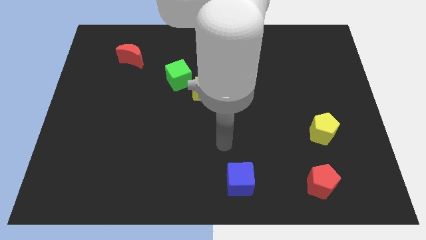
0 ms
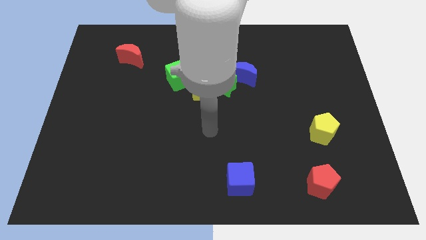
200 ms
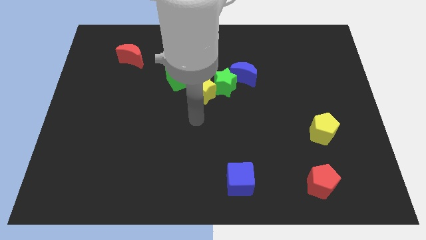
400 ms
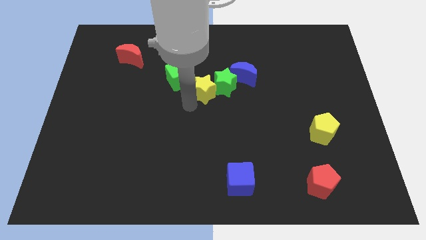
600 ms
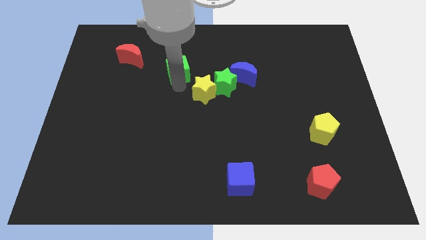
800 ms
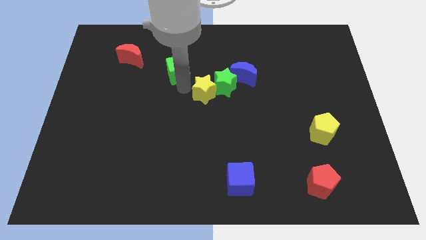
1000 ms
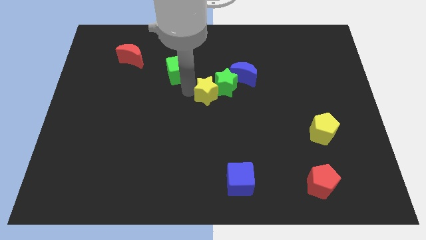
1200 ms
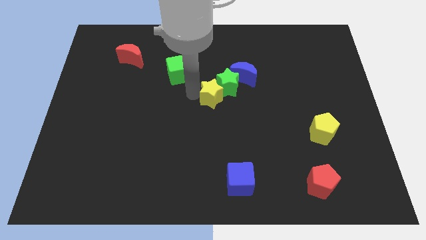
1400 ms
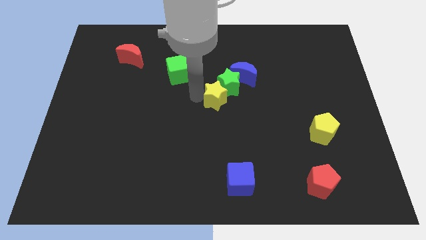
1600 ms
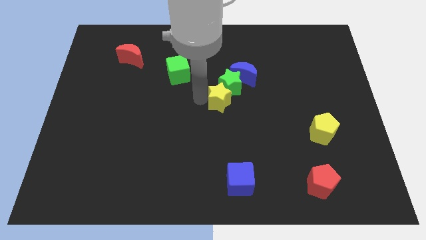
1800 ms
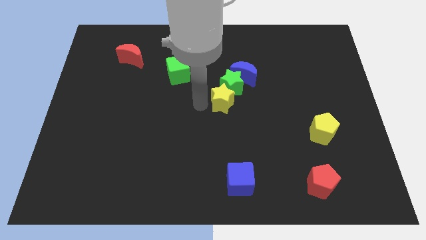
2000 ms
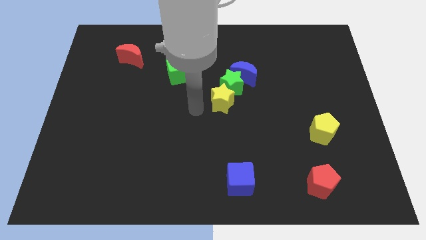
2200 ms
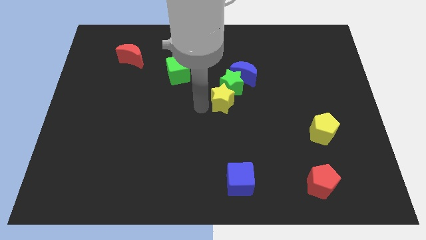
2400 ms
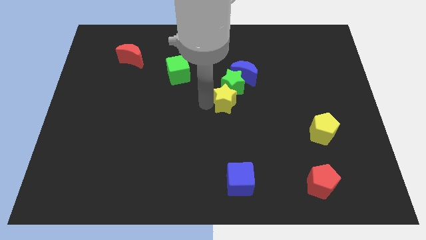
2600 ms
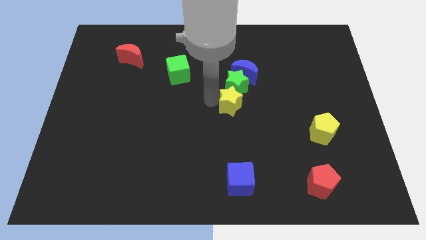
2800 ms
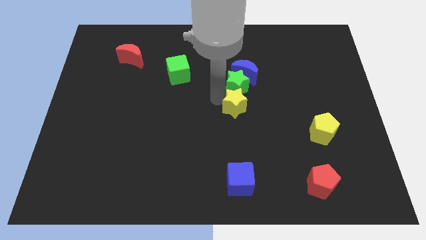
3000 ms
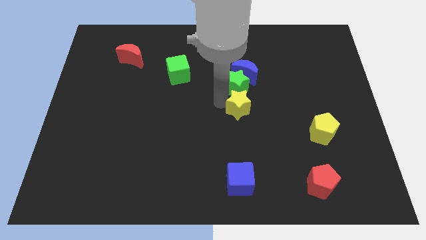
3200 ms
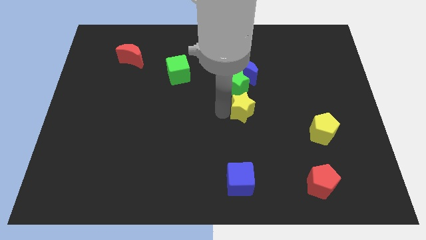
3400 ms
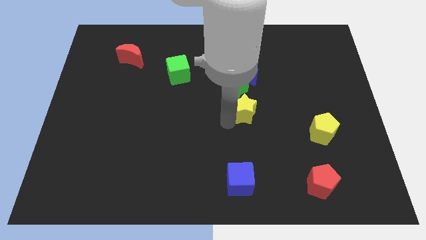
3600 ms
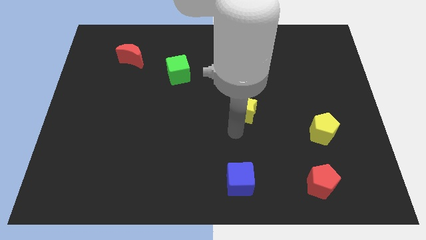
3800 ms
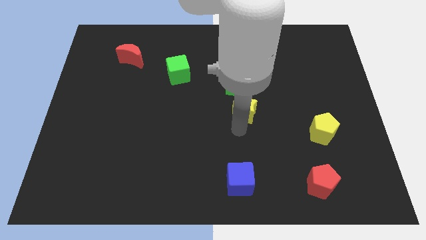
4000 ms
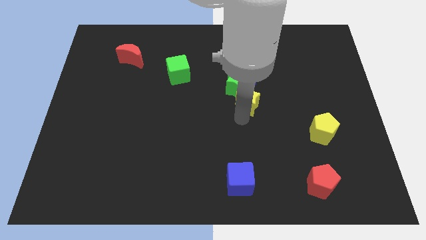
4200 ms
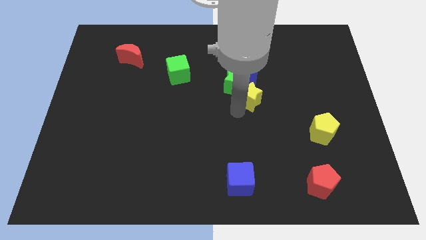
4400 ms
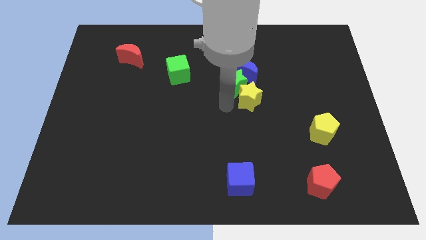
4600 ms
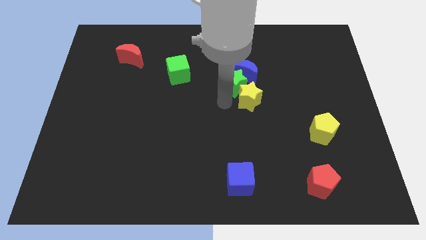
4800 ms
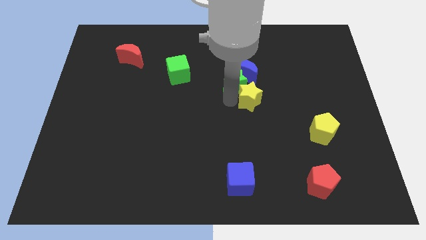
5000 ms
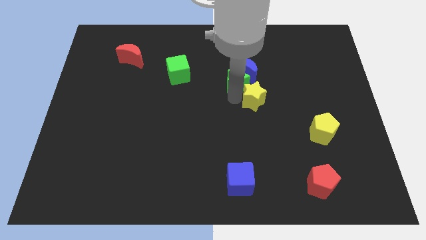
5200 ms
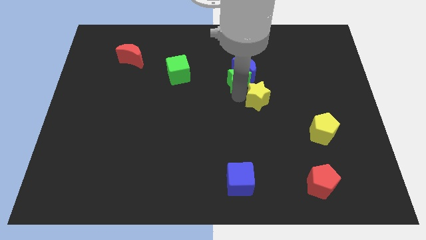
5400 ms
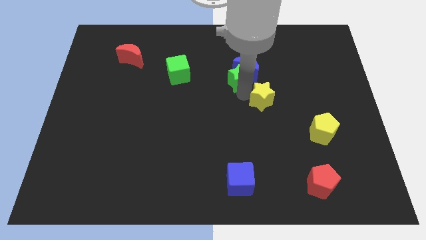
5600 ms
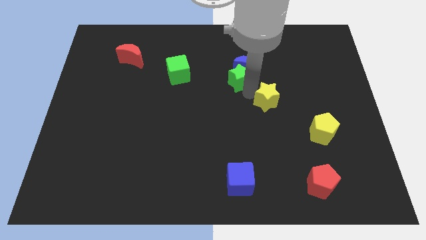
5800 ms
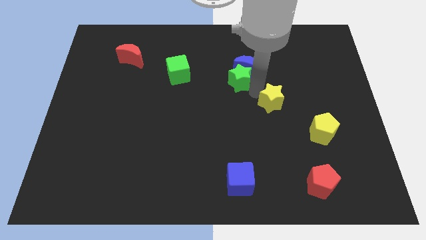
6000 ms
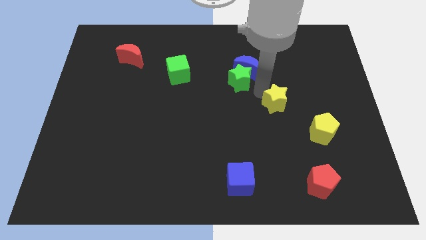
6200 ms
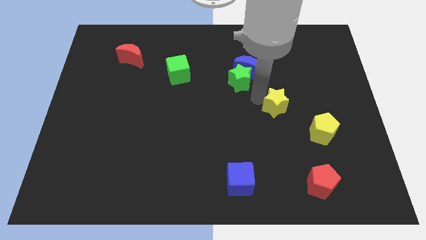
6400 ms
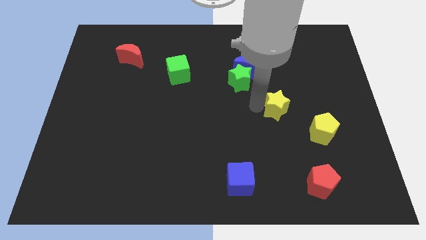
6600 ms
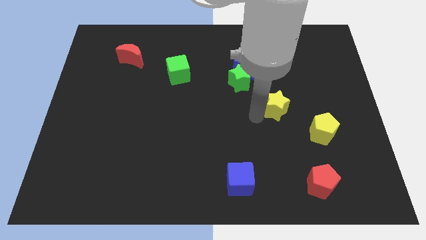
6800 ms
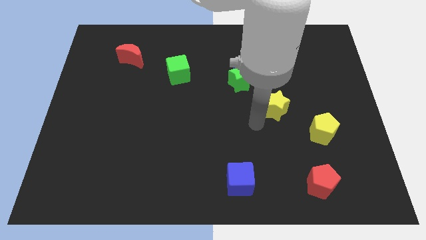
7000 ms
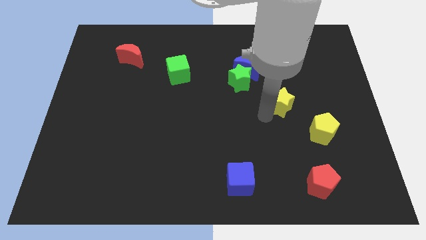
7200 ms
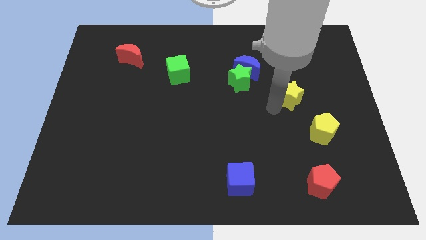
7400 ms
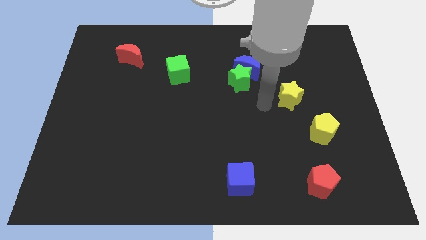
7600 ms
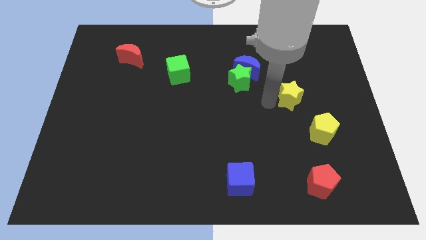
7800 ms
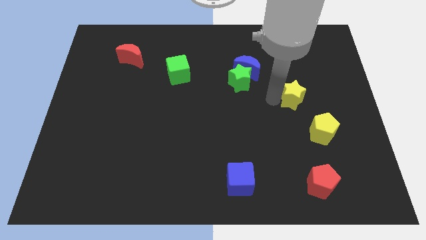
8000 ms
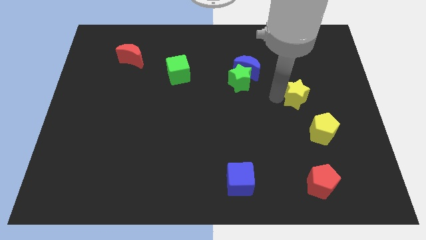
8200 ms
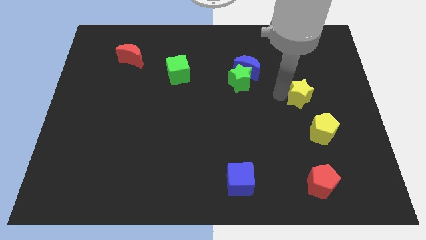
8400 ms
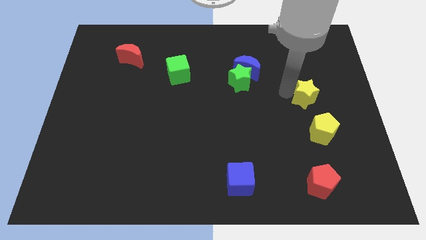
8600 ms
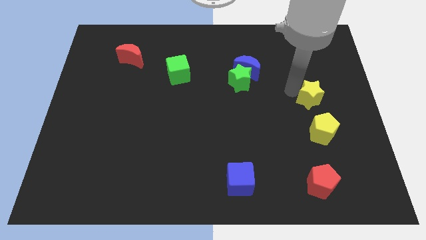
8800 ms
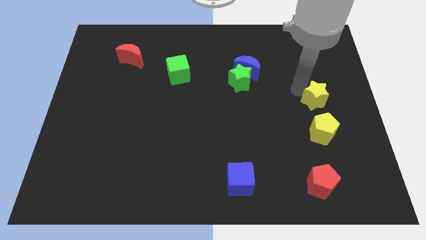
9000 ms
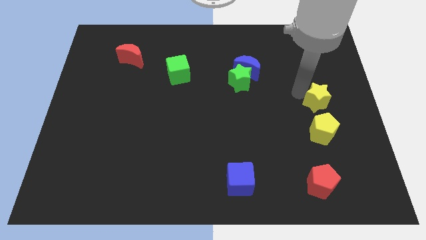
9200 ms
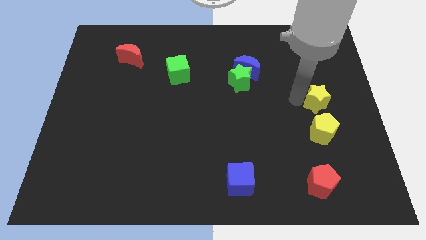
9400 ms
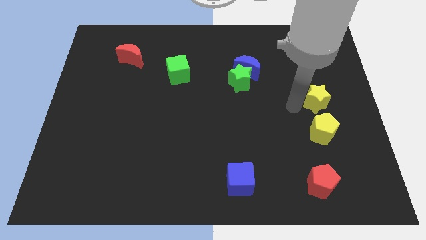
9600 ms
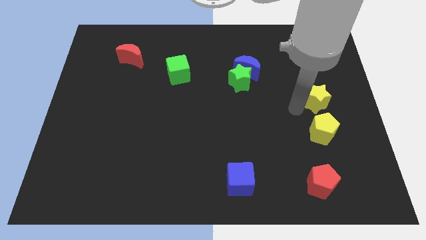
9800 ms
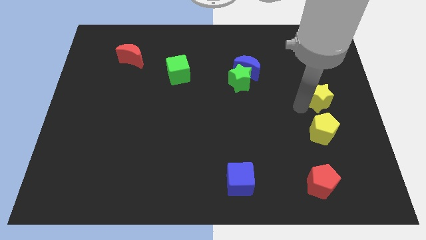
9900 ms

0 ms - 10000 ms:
move the yellow star to the right side of the board

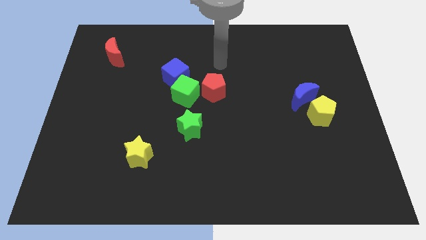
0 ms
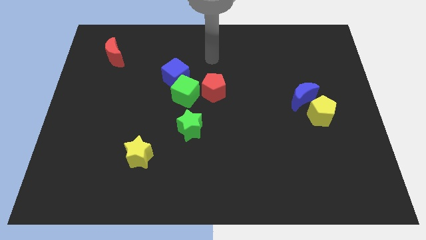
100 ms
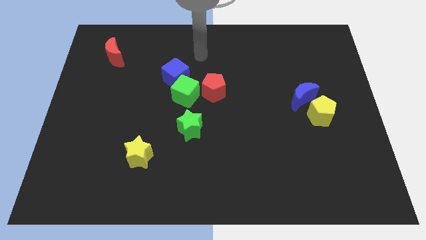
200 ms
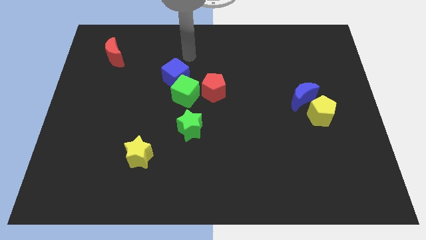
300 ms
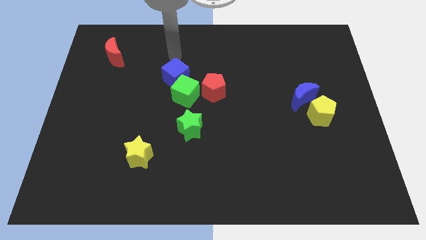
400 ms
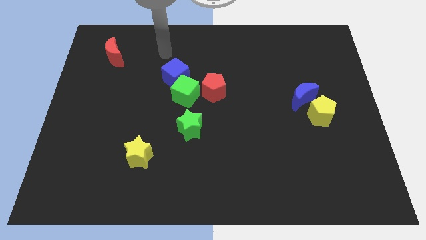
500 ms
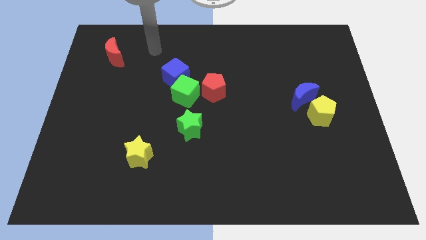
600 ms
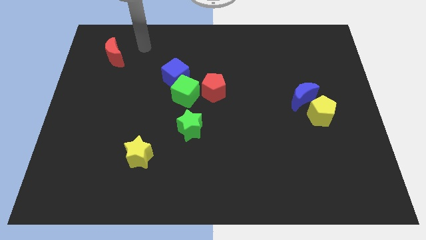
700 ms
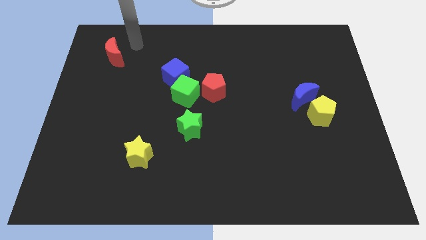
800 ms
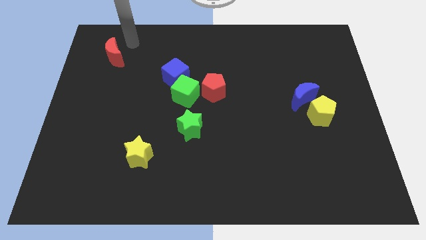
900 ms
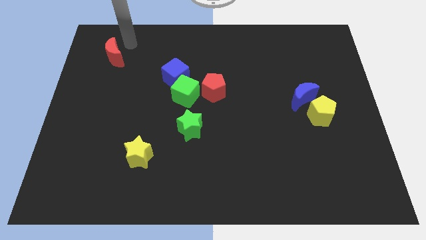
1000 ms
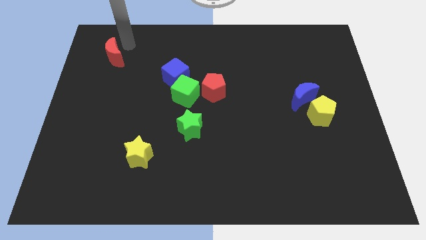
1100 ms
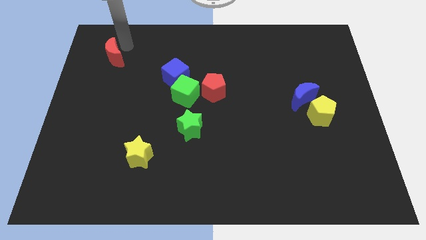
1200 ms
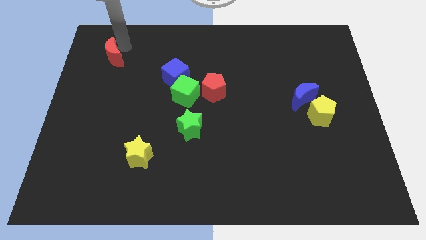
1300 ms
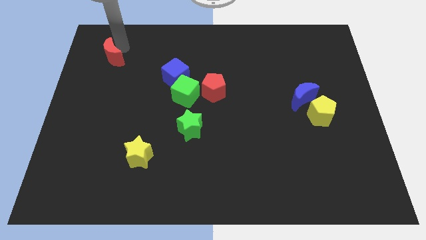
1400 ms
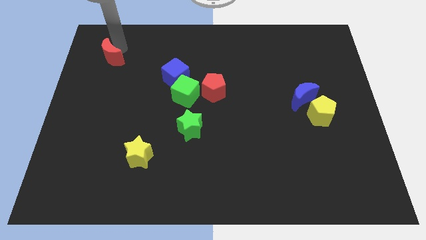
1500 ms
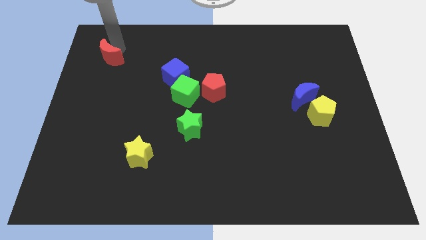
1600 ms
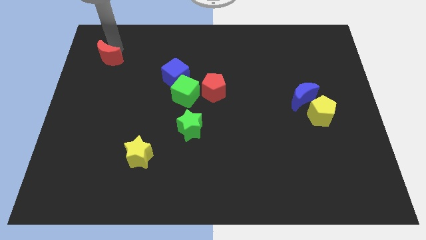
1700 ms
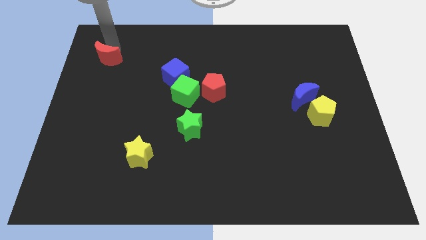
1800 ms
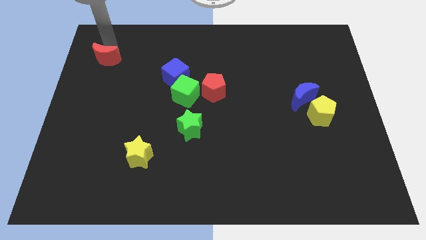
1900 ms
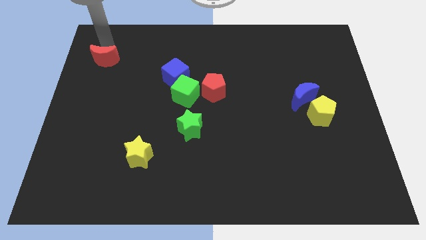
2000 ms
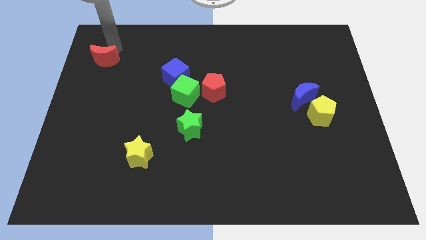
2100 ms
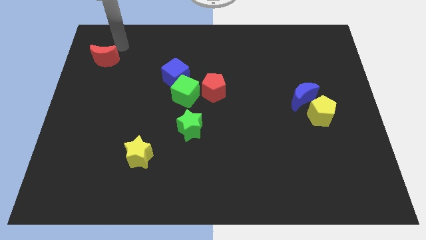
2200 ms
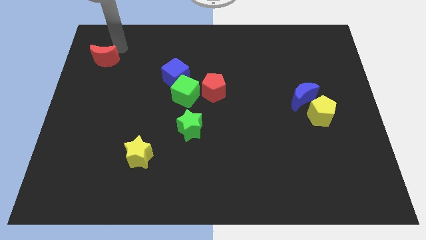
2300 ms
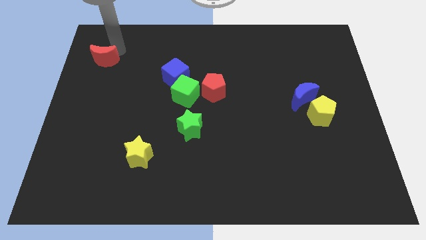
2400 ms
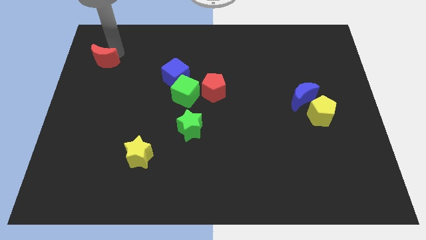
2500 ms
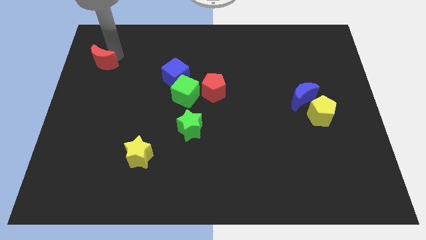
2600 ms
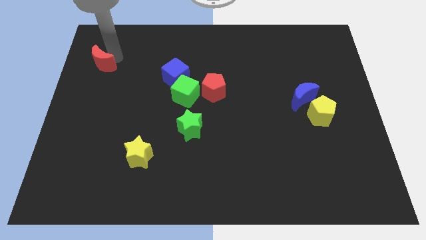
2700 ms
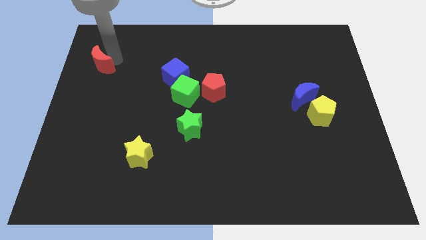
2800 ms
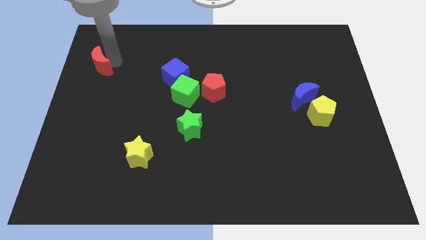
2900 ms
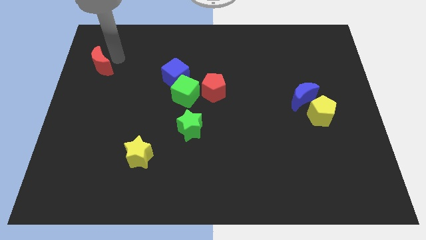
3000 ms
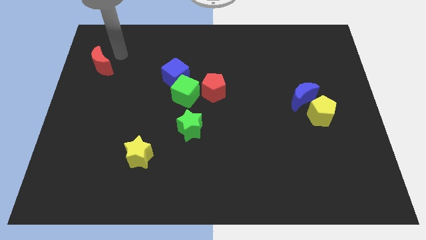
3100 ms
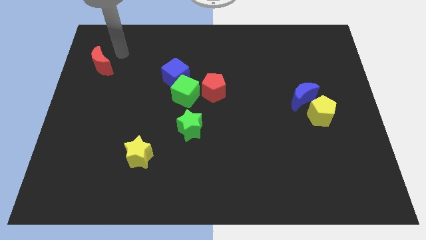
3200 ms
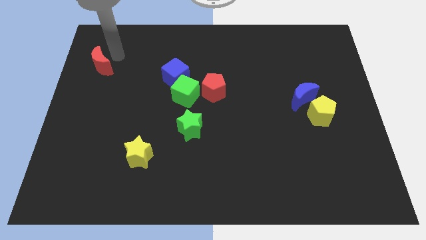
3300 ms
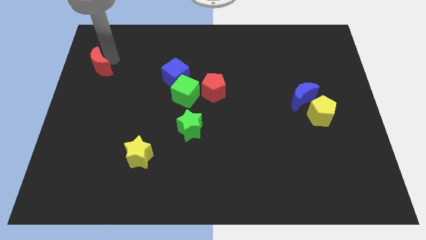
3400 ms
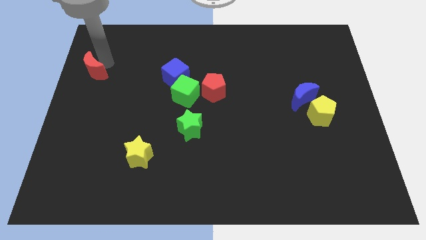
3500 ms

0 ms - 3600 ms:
slide the red moon to the left side of the board
